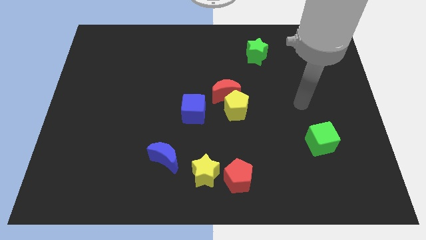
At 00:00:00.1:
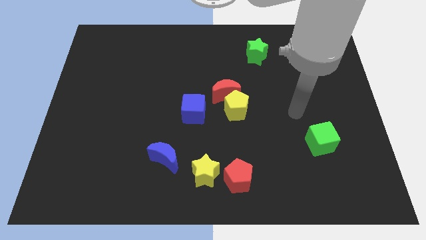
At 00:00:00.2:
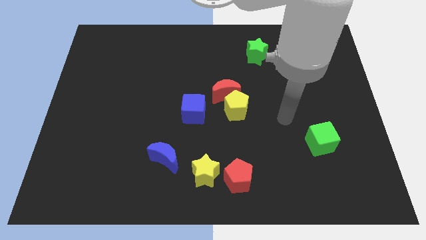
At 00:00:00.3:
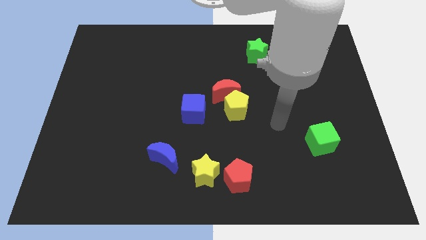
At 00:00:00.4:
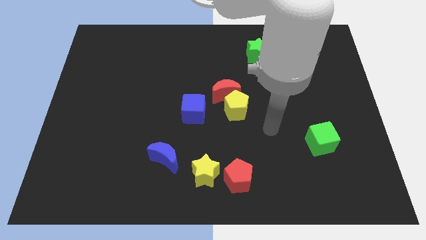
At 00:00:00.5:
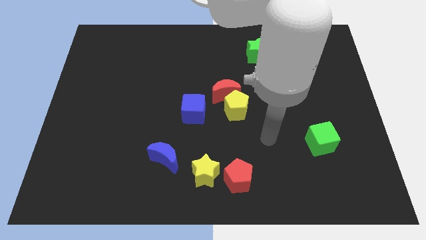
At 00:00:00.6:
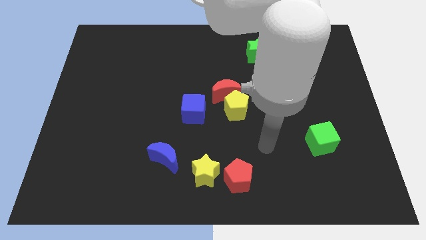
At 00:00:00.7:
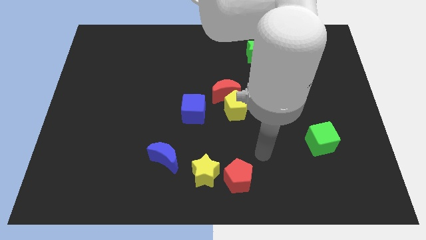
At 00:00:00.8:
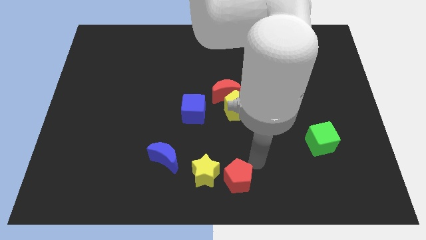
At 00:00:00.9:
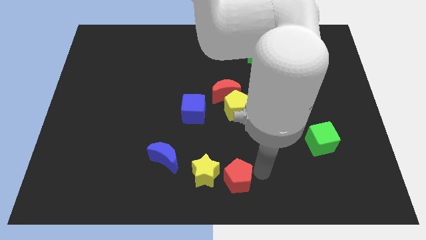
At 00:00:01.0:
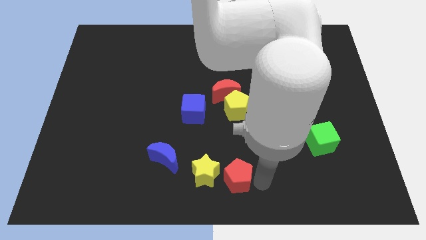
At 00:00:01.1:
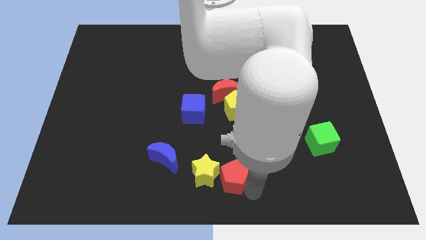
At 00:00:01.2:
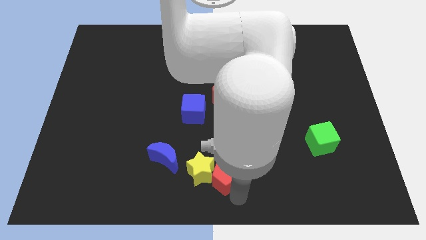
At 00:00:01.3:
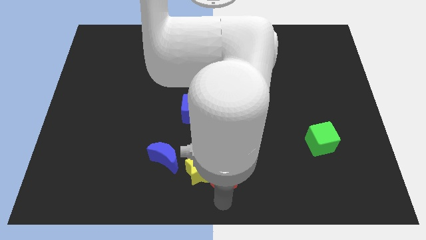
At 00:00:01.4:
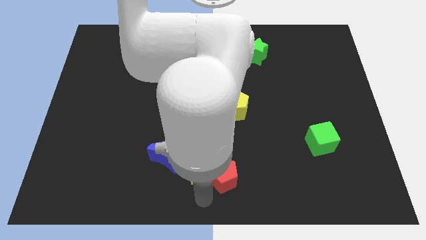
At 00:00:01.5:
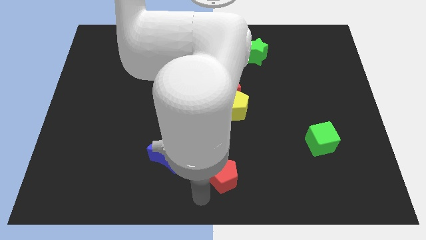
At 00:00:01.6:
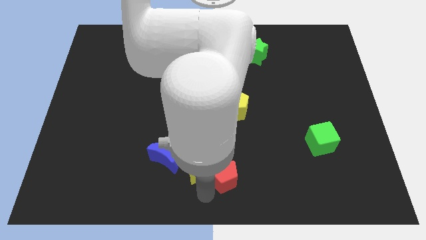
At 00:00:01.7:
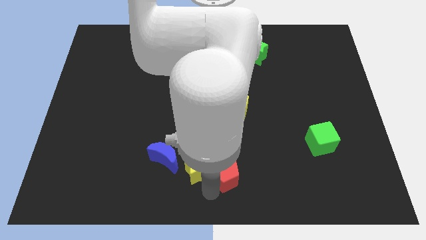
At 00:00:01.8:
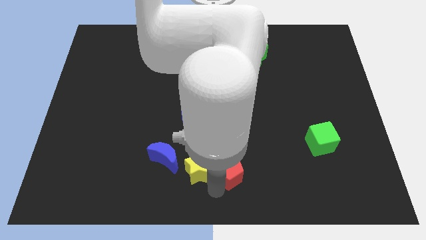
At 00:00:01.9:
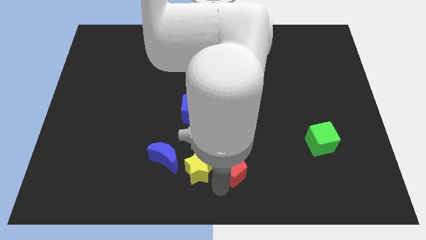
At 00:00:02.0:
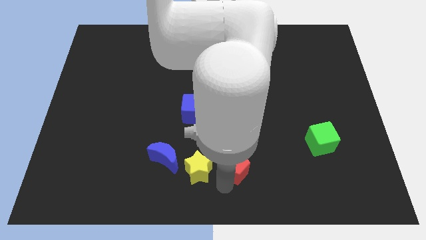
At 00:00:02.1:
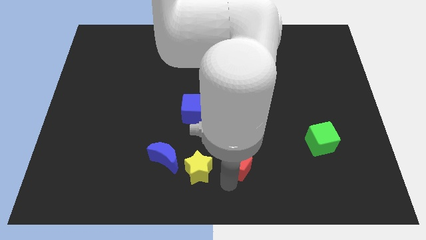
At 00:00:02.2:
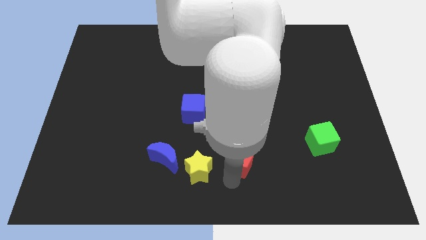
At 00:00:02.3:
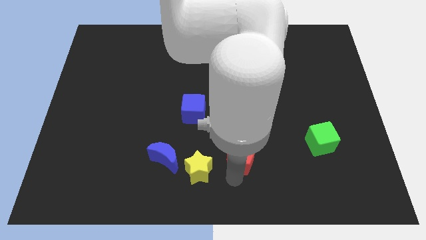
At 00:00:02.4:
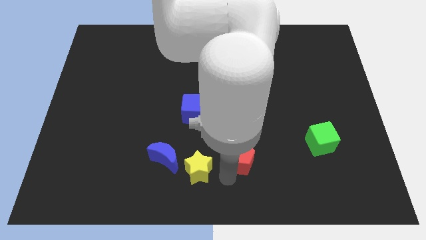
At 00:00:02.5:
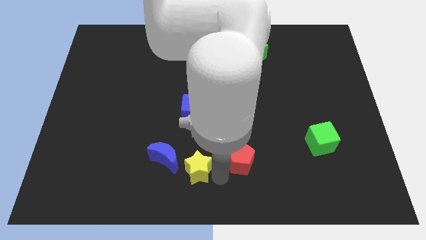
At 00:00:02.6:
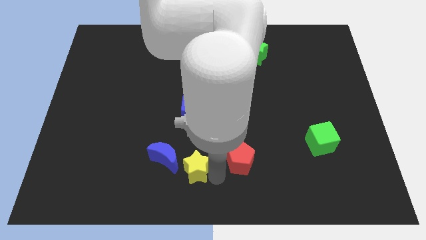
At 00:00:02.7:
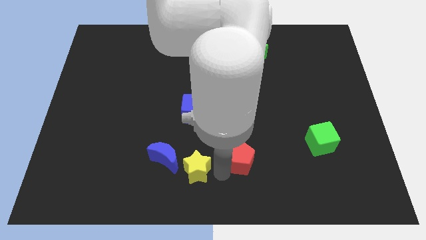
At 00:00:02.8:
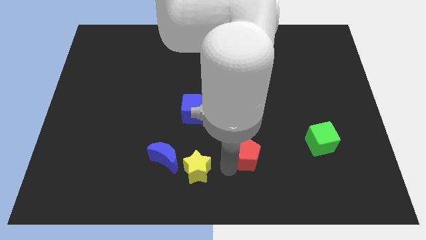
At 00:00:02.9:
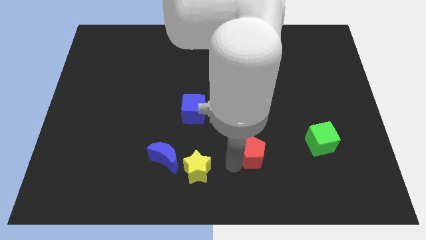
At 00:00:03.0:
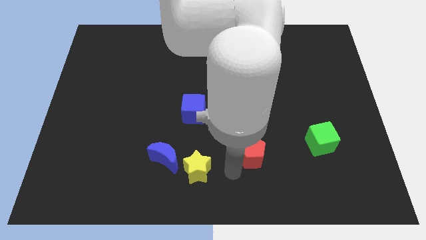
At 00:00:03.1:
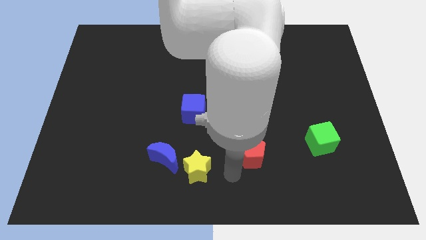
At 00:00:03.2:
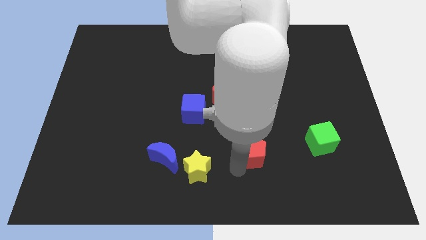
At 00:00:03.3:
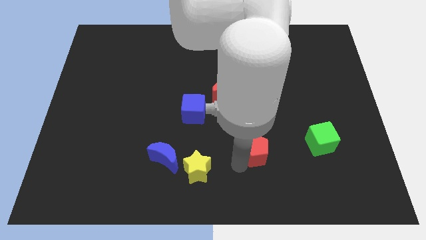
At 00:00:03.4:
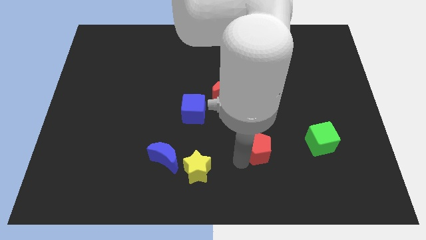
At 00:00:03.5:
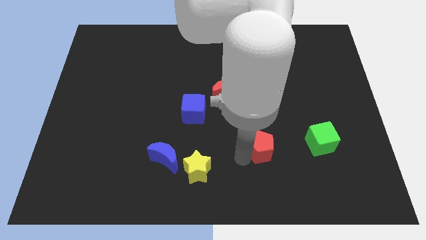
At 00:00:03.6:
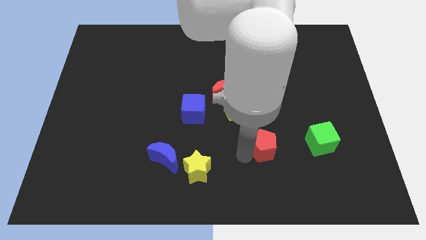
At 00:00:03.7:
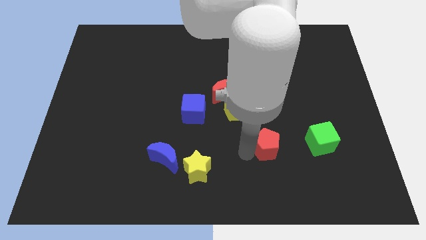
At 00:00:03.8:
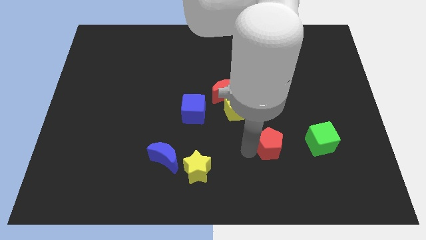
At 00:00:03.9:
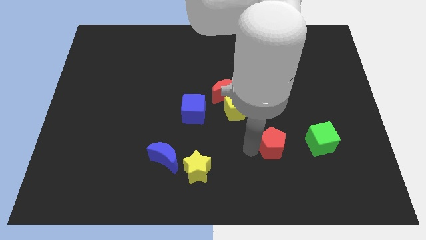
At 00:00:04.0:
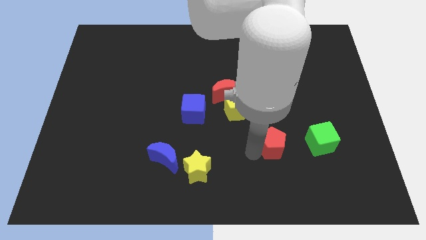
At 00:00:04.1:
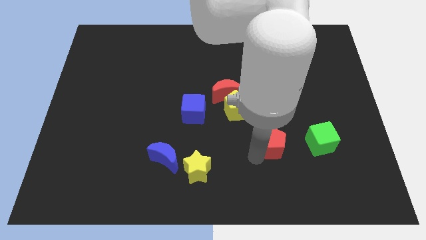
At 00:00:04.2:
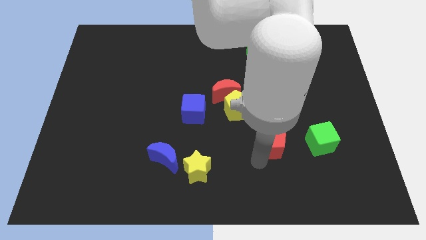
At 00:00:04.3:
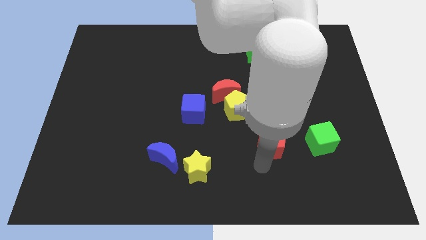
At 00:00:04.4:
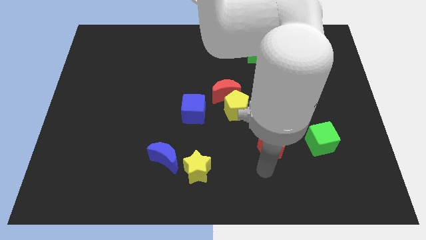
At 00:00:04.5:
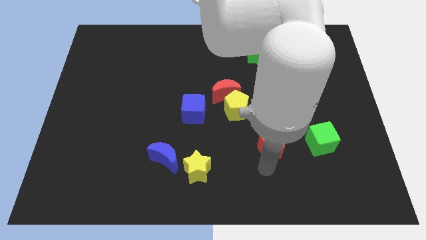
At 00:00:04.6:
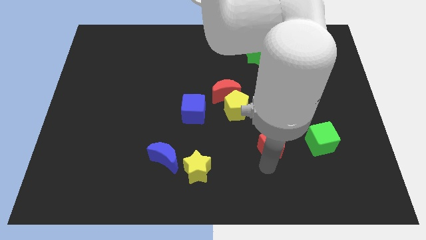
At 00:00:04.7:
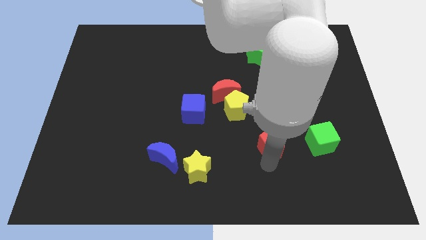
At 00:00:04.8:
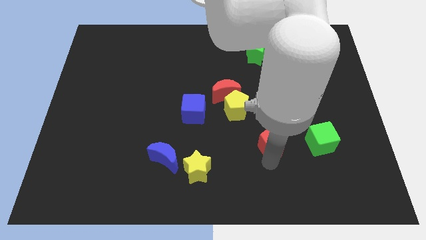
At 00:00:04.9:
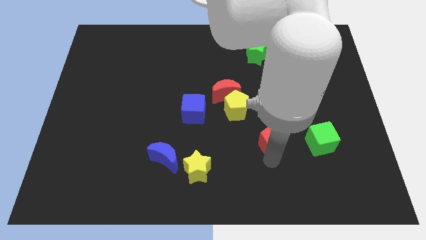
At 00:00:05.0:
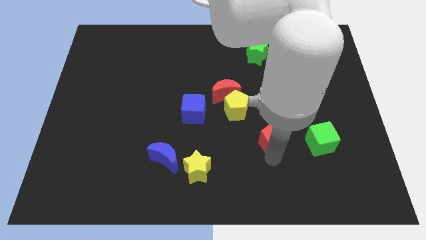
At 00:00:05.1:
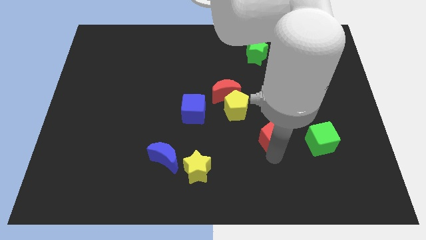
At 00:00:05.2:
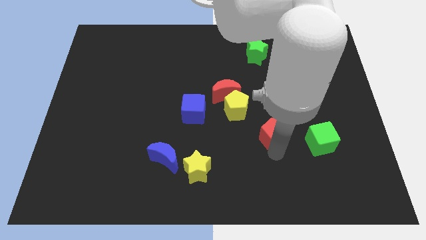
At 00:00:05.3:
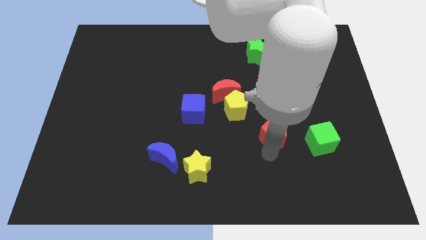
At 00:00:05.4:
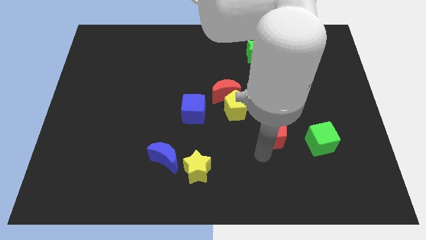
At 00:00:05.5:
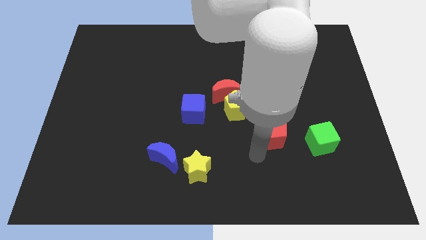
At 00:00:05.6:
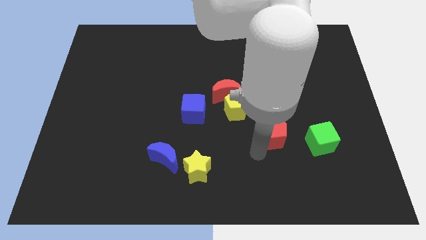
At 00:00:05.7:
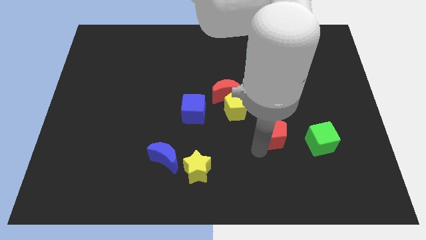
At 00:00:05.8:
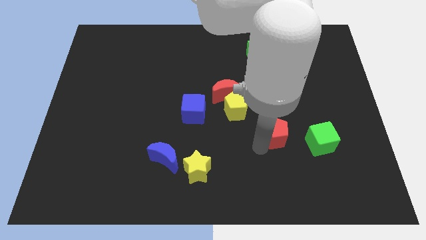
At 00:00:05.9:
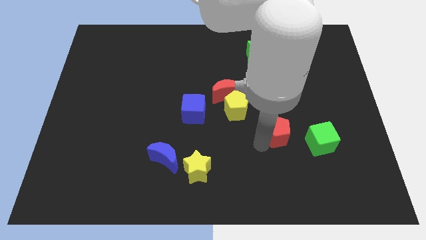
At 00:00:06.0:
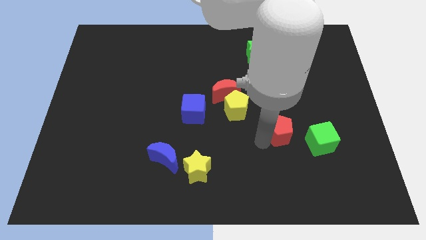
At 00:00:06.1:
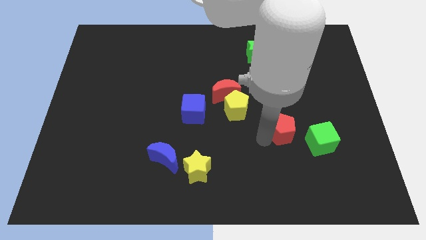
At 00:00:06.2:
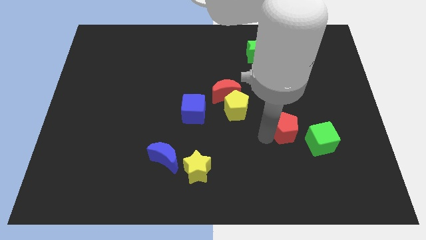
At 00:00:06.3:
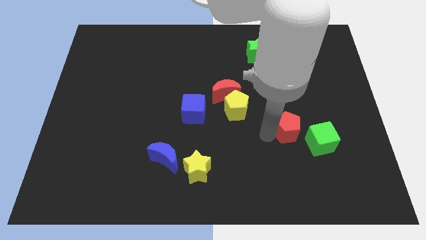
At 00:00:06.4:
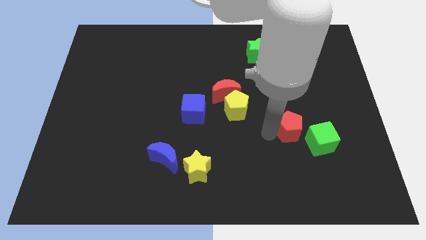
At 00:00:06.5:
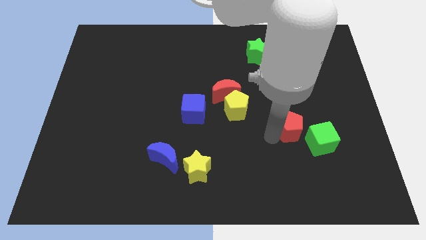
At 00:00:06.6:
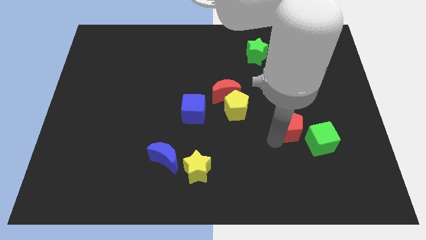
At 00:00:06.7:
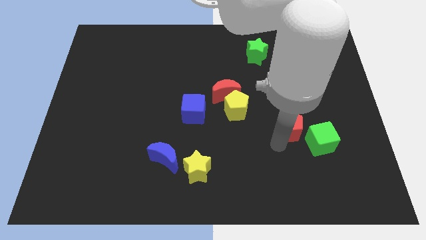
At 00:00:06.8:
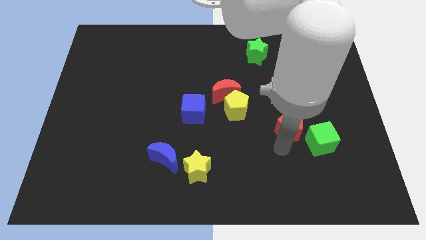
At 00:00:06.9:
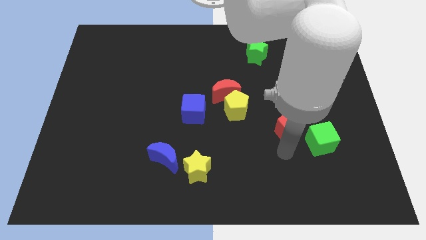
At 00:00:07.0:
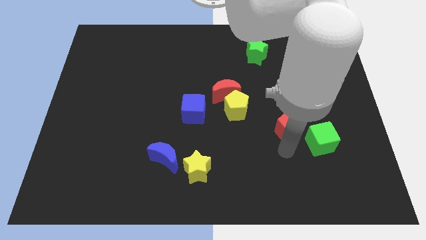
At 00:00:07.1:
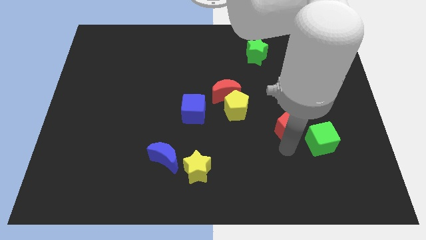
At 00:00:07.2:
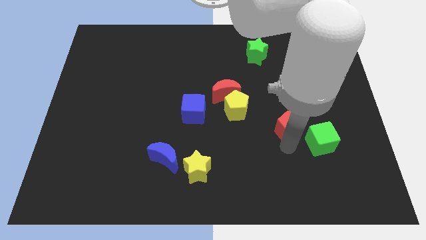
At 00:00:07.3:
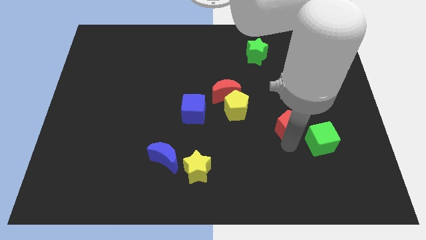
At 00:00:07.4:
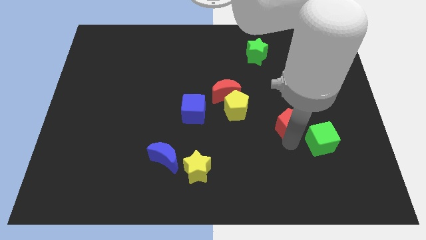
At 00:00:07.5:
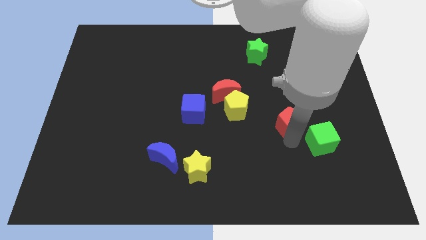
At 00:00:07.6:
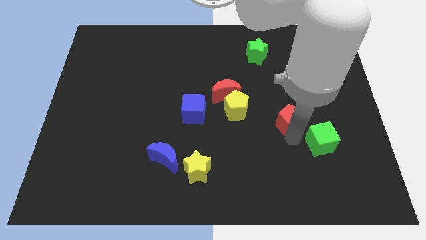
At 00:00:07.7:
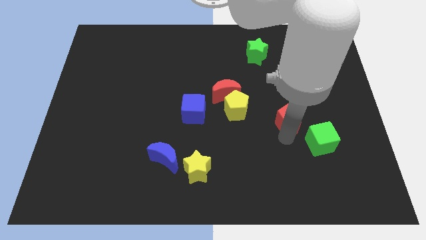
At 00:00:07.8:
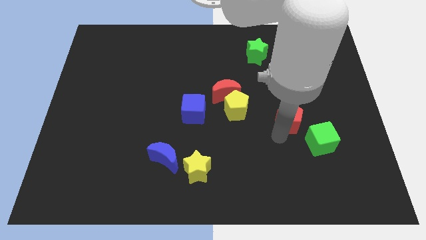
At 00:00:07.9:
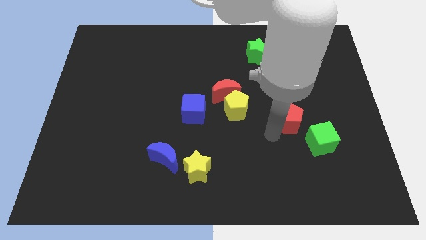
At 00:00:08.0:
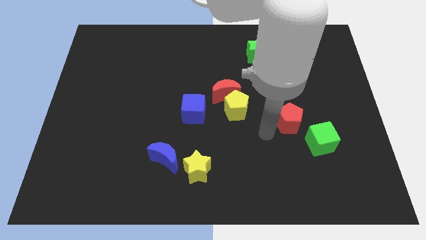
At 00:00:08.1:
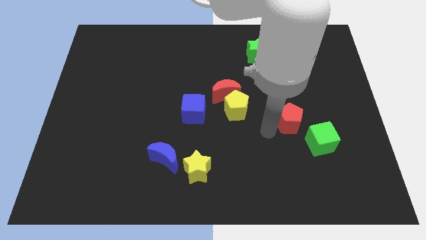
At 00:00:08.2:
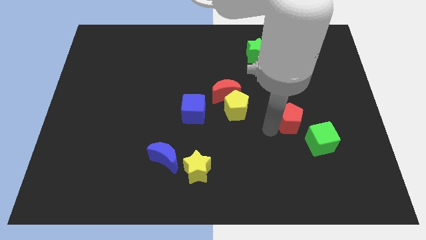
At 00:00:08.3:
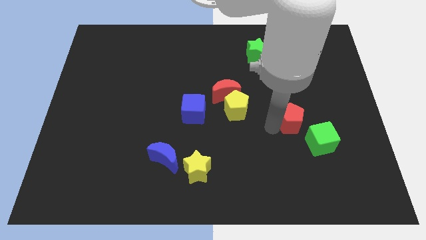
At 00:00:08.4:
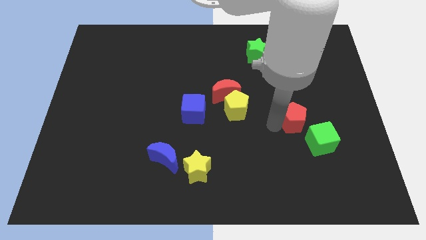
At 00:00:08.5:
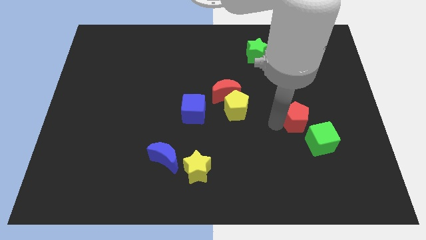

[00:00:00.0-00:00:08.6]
move the red pentagon up and then to the right
